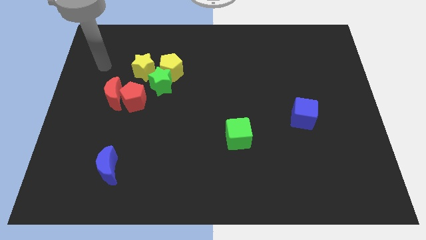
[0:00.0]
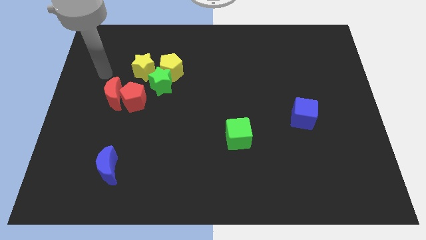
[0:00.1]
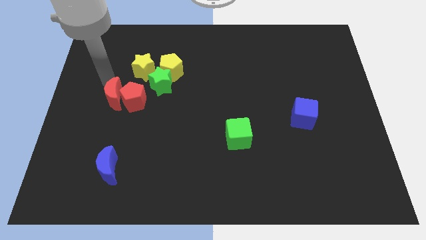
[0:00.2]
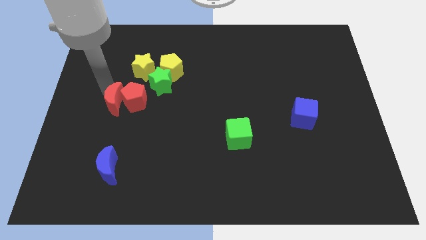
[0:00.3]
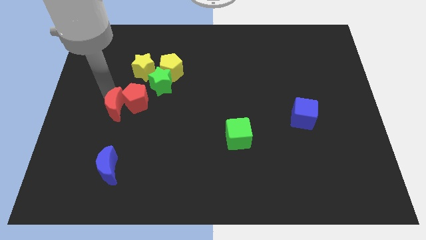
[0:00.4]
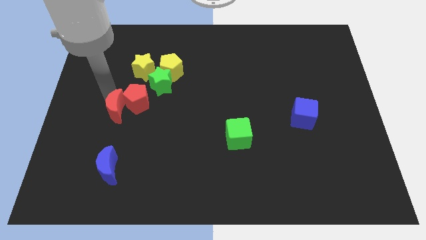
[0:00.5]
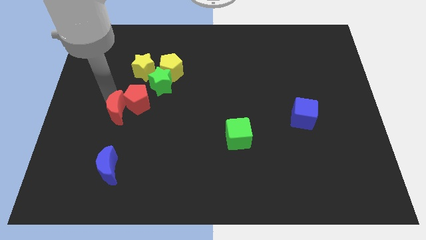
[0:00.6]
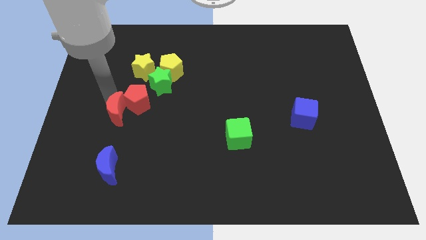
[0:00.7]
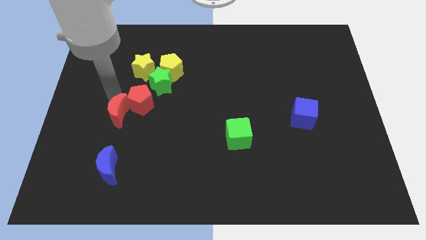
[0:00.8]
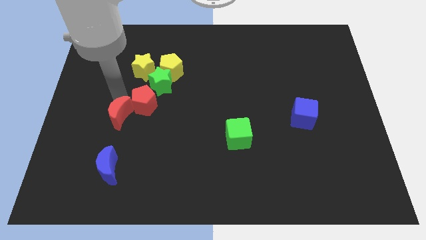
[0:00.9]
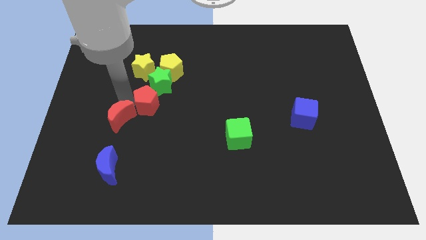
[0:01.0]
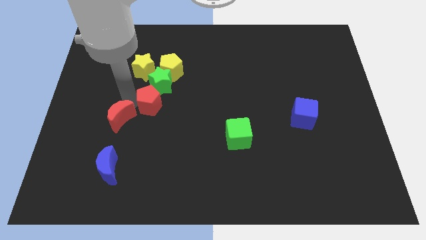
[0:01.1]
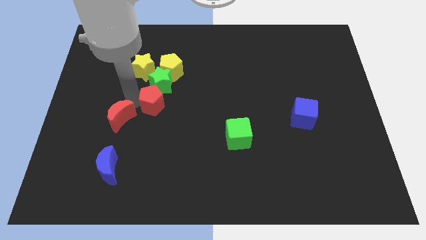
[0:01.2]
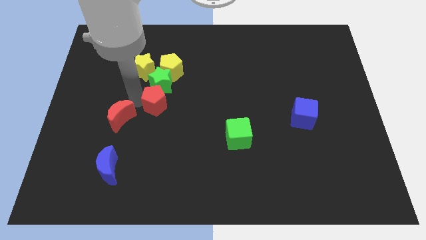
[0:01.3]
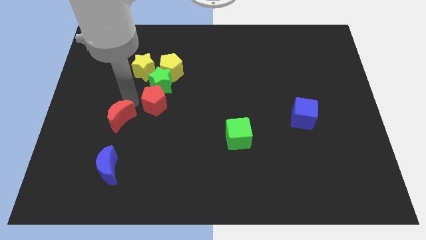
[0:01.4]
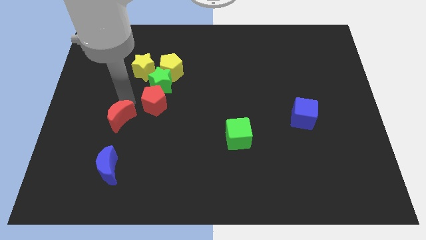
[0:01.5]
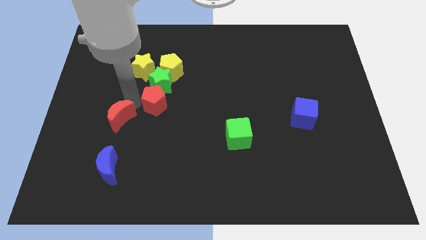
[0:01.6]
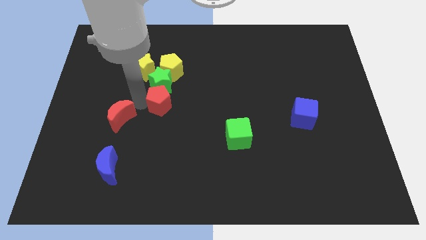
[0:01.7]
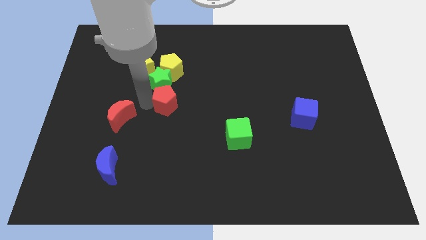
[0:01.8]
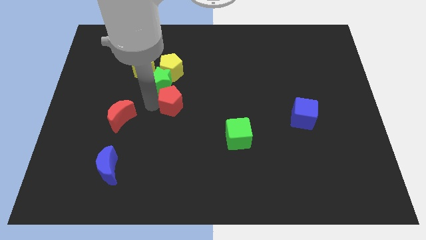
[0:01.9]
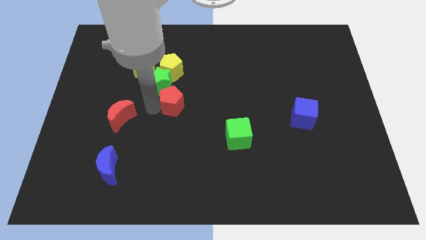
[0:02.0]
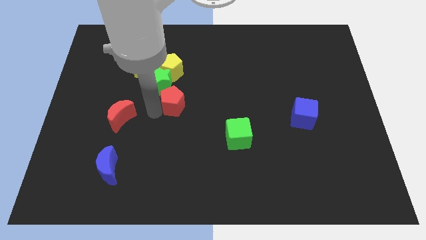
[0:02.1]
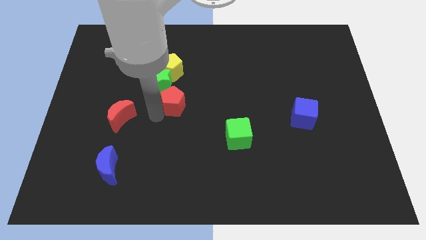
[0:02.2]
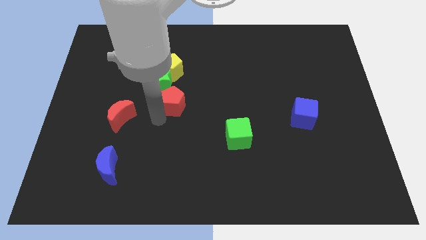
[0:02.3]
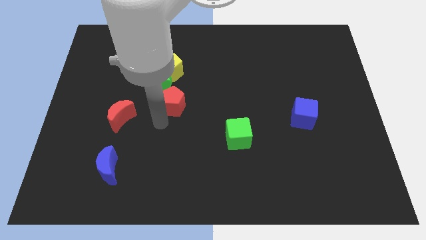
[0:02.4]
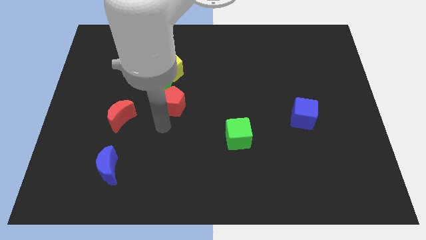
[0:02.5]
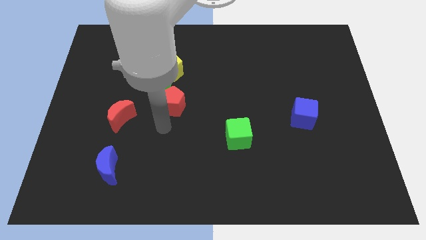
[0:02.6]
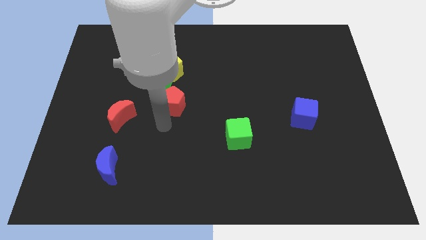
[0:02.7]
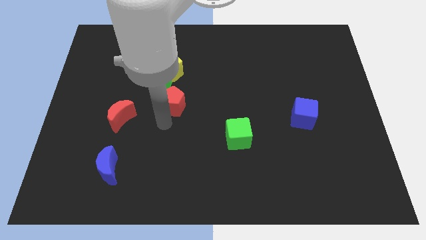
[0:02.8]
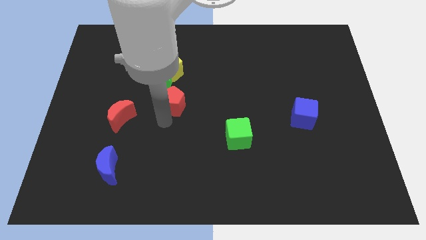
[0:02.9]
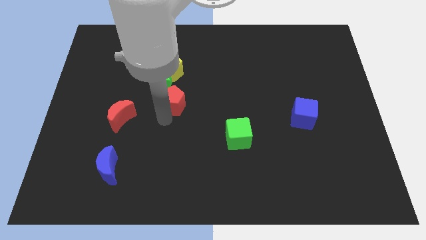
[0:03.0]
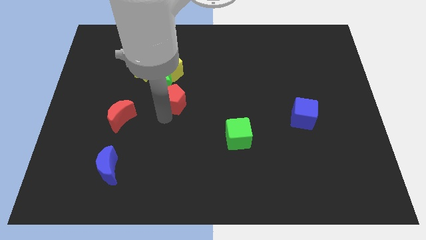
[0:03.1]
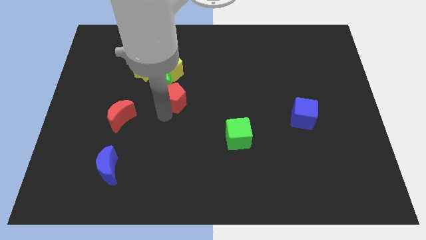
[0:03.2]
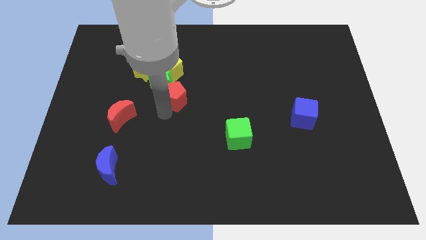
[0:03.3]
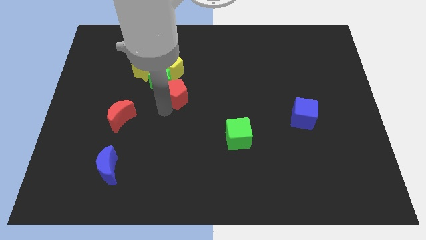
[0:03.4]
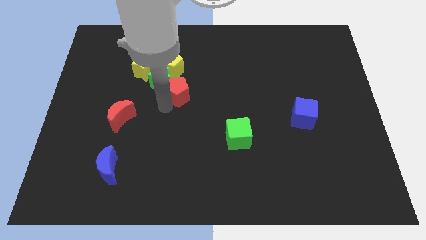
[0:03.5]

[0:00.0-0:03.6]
slightly slide the red pentagon upwards and right diagonally

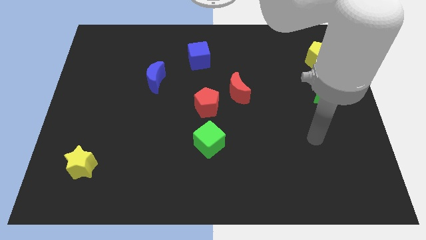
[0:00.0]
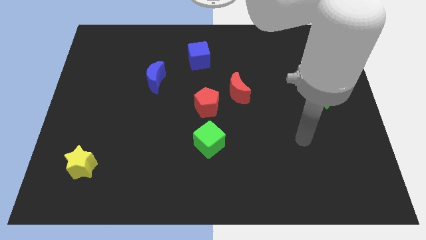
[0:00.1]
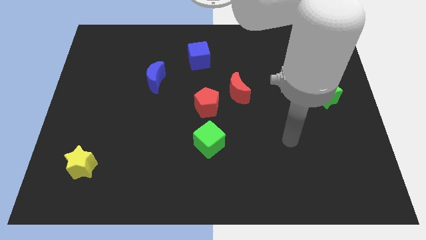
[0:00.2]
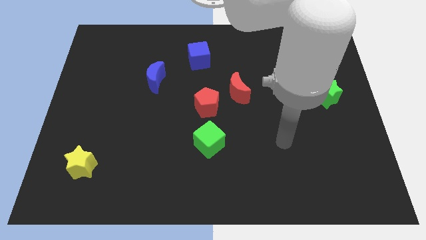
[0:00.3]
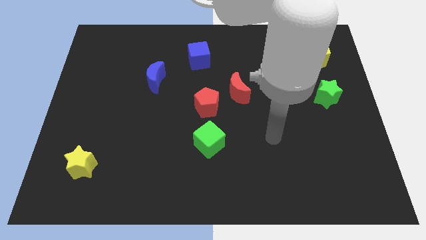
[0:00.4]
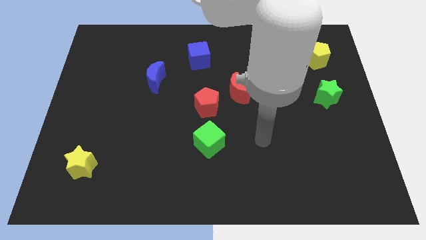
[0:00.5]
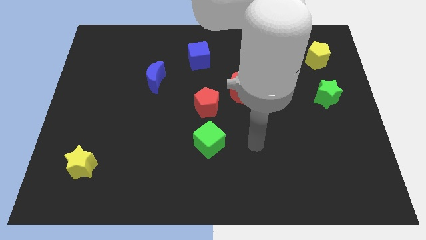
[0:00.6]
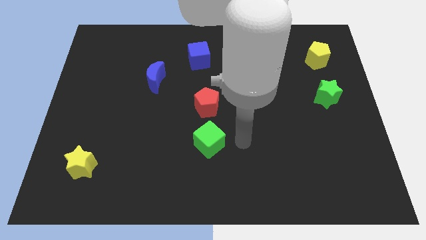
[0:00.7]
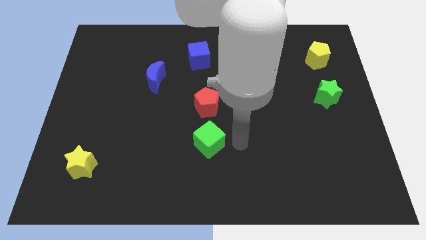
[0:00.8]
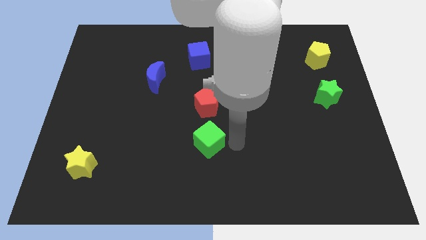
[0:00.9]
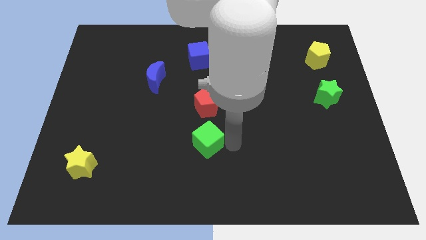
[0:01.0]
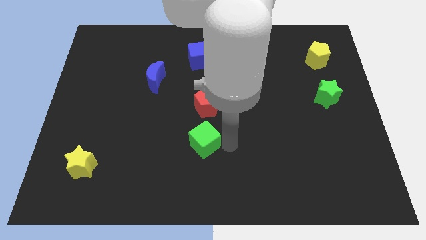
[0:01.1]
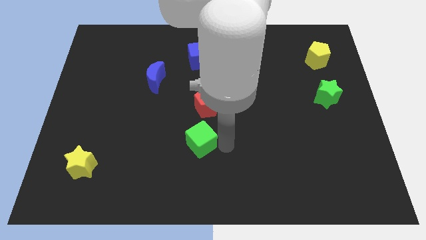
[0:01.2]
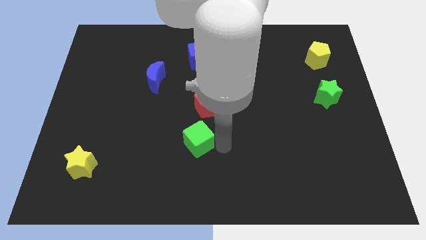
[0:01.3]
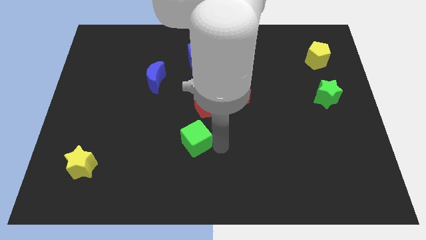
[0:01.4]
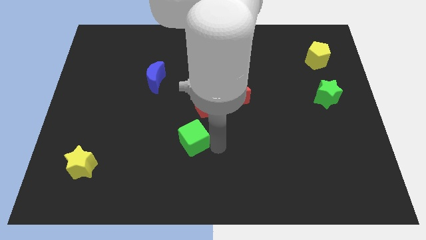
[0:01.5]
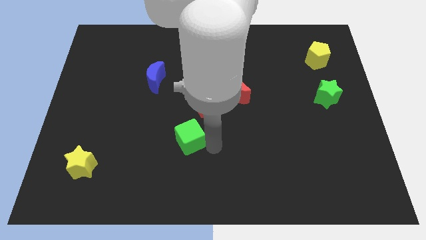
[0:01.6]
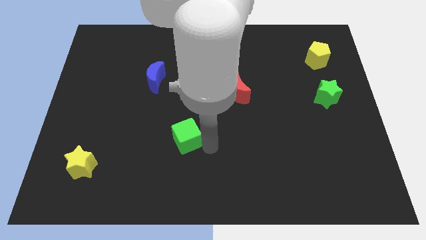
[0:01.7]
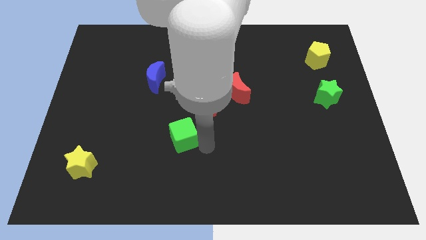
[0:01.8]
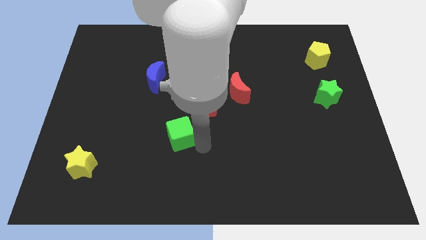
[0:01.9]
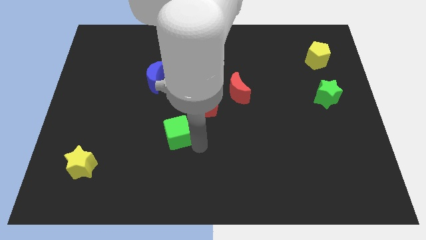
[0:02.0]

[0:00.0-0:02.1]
slide the green cube left somewhat

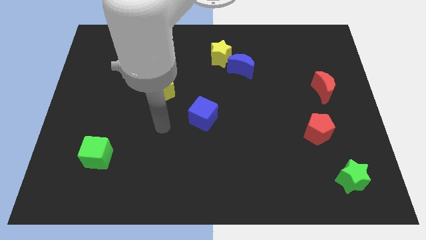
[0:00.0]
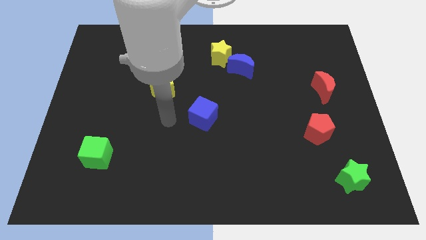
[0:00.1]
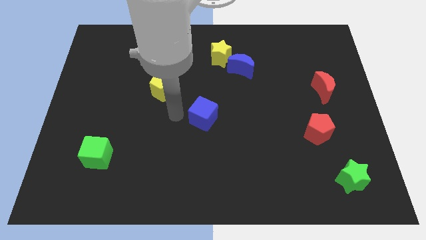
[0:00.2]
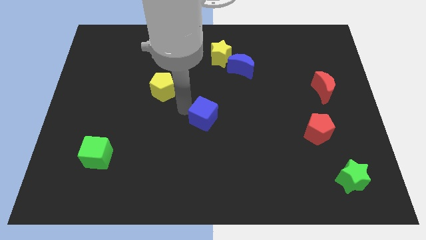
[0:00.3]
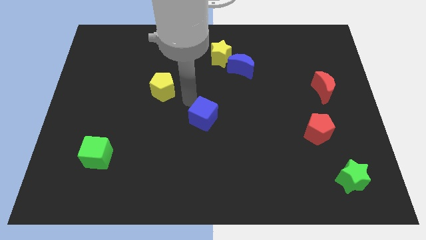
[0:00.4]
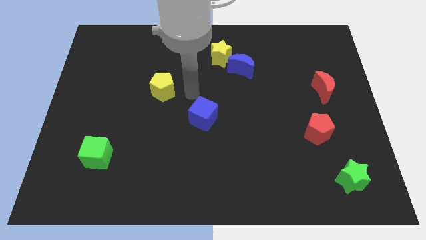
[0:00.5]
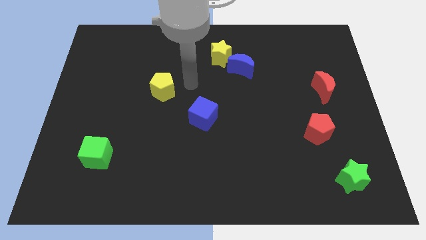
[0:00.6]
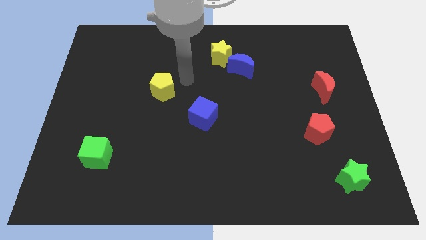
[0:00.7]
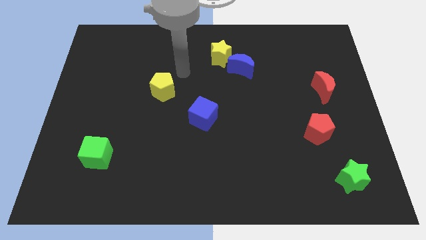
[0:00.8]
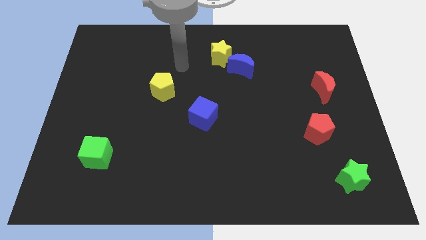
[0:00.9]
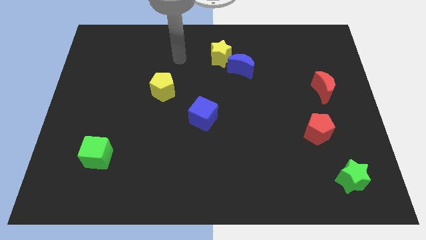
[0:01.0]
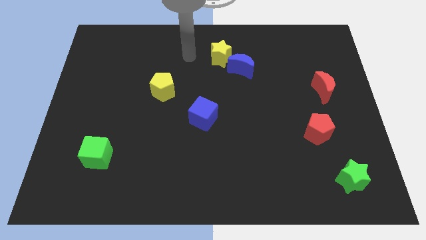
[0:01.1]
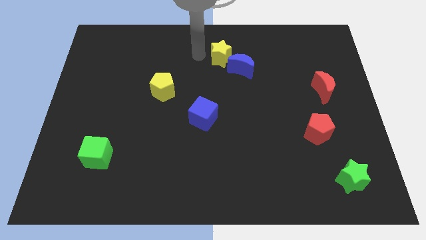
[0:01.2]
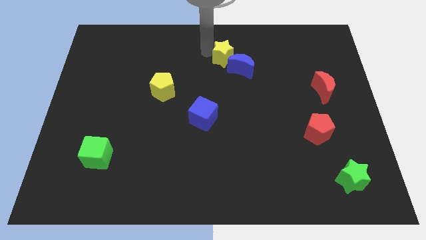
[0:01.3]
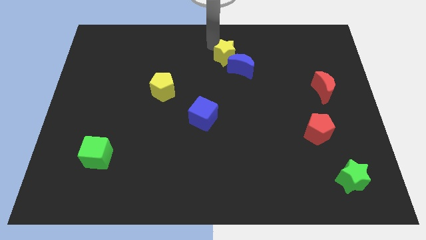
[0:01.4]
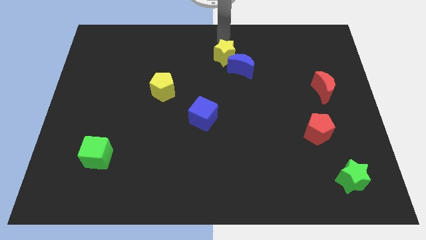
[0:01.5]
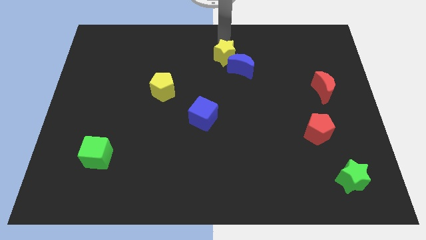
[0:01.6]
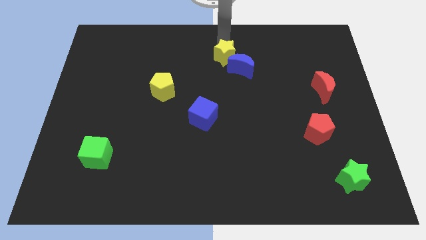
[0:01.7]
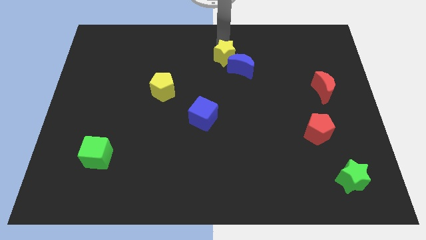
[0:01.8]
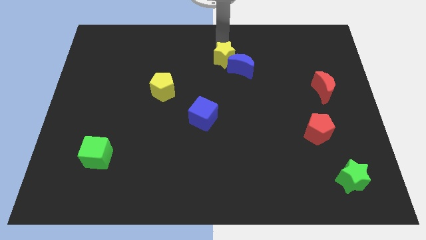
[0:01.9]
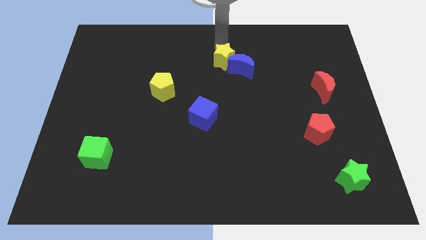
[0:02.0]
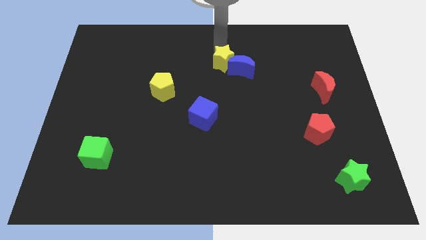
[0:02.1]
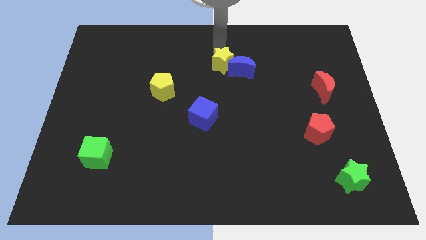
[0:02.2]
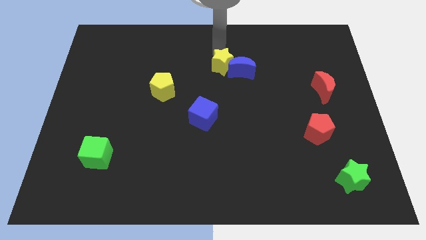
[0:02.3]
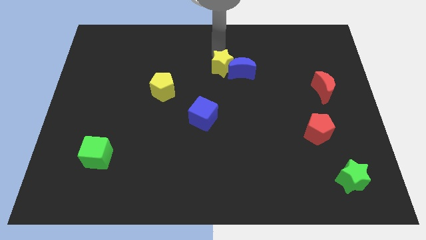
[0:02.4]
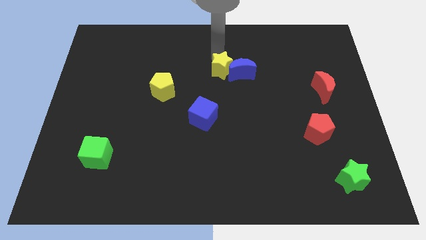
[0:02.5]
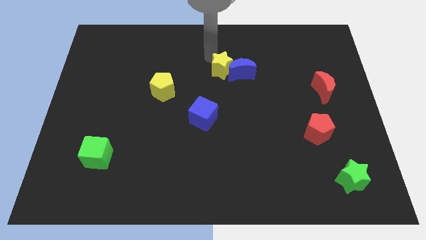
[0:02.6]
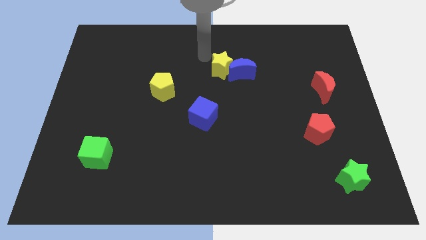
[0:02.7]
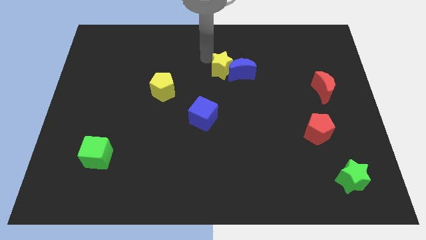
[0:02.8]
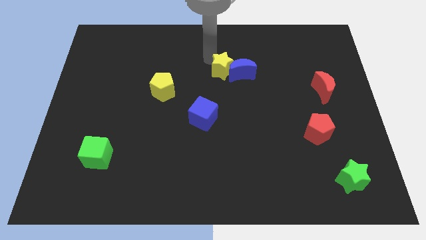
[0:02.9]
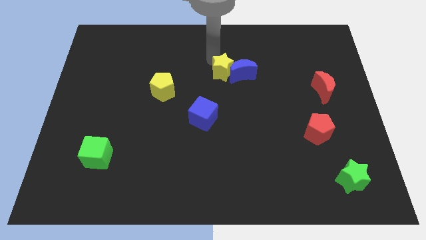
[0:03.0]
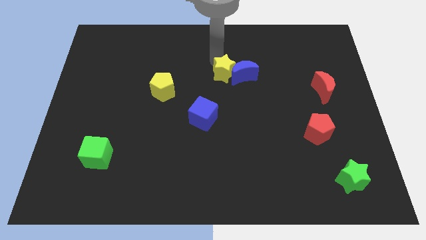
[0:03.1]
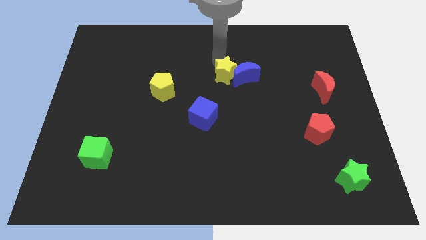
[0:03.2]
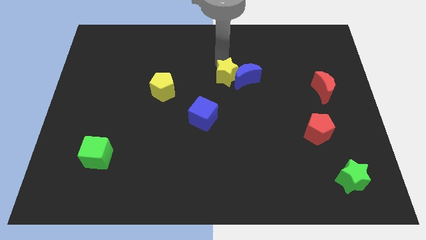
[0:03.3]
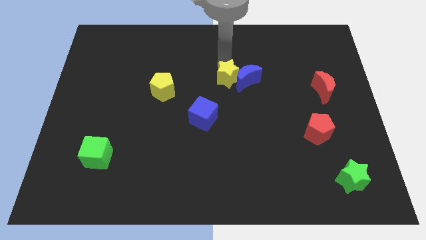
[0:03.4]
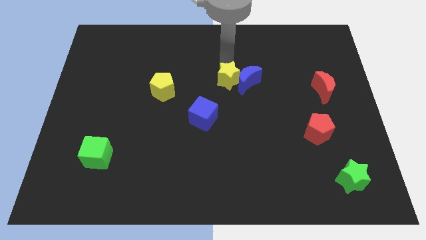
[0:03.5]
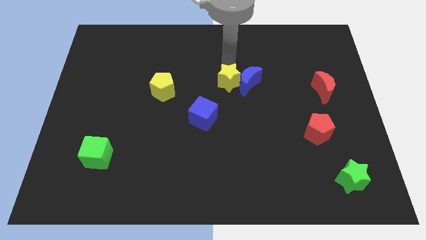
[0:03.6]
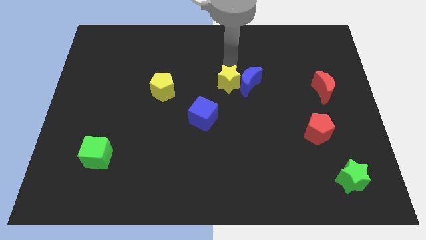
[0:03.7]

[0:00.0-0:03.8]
push the yellow star down and right diagonally somewhat
